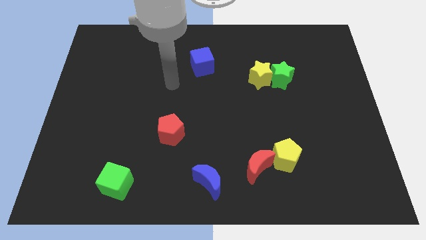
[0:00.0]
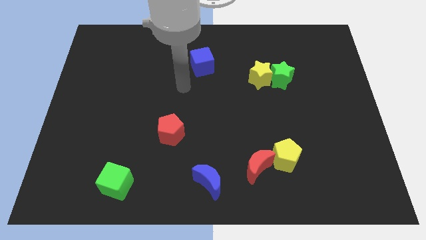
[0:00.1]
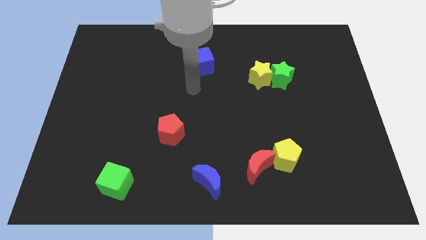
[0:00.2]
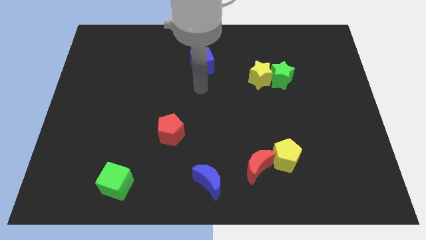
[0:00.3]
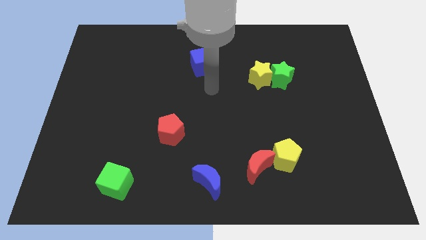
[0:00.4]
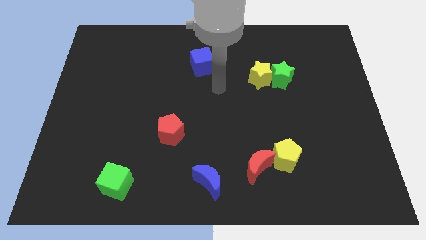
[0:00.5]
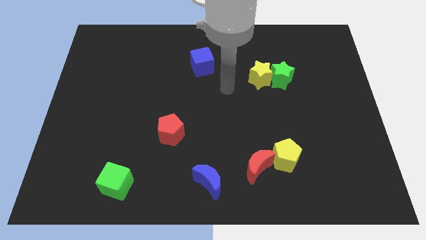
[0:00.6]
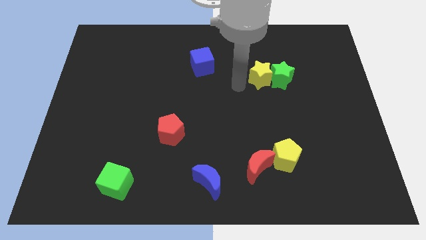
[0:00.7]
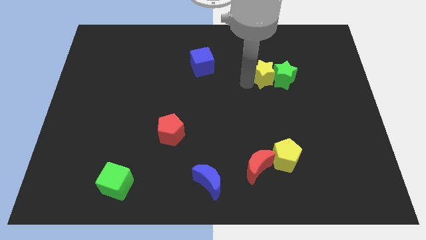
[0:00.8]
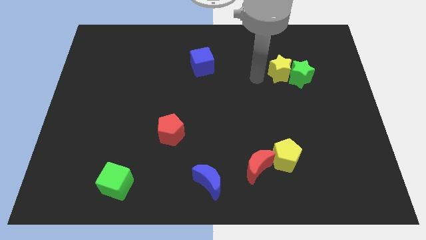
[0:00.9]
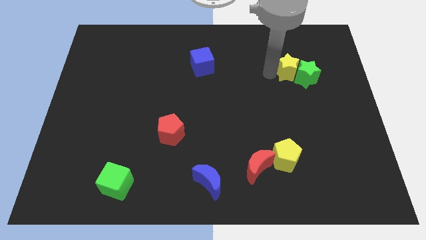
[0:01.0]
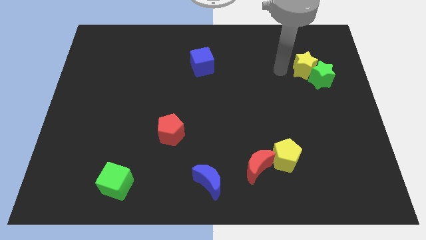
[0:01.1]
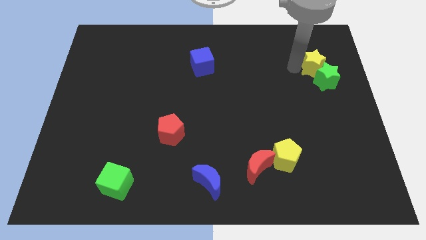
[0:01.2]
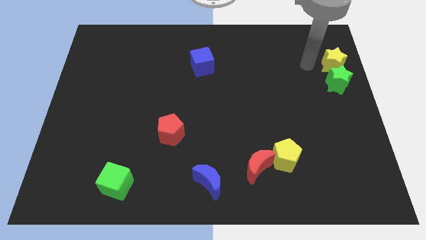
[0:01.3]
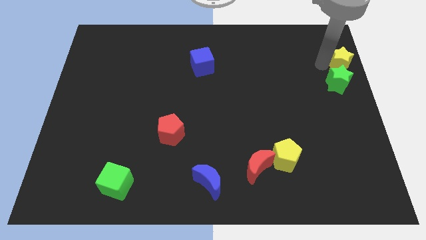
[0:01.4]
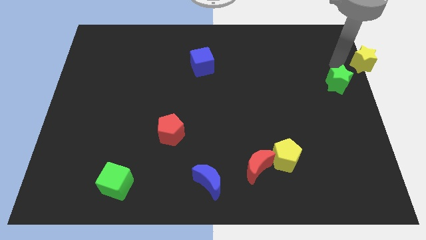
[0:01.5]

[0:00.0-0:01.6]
move the green star away from the yellow star

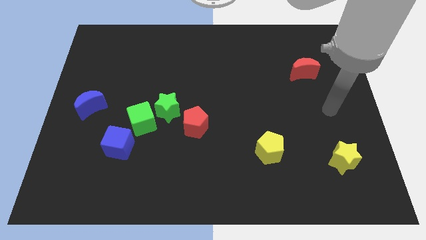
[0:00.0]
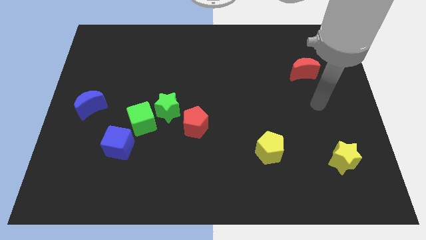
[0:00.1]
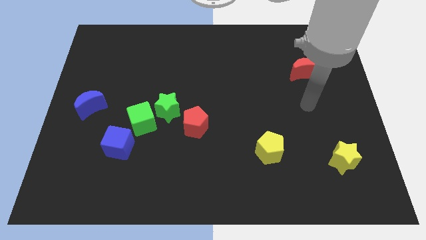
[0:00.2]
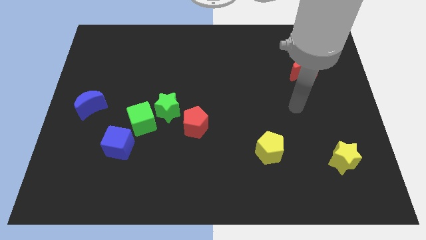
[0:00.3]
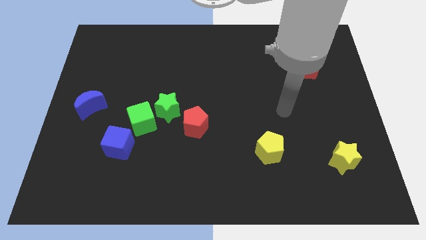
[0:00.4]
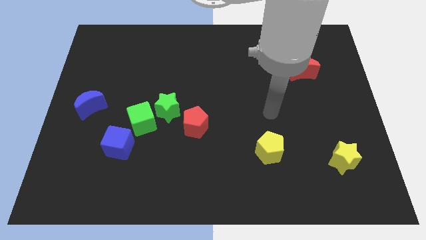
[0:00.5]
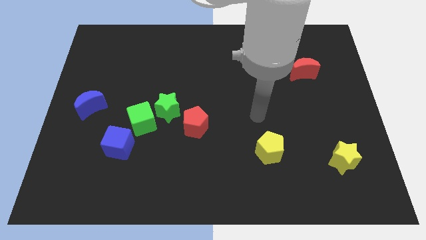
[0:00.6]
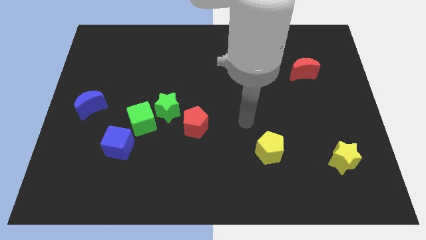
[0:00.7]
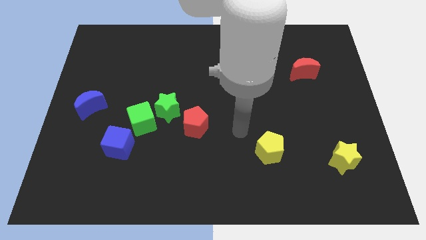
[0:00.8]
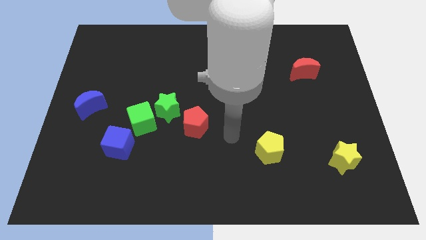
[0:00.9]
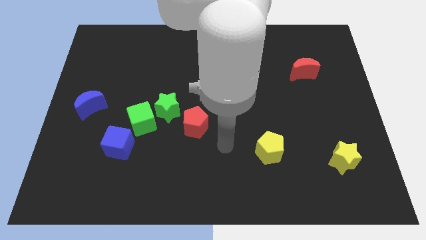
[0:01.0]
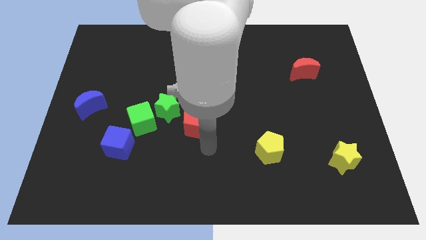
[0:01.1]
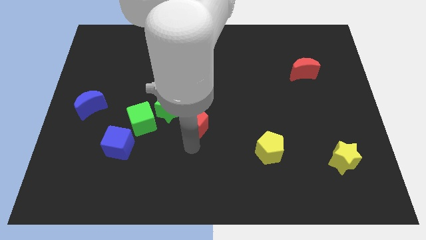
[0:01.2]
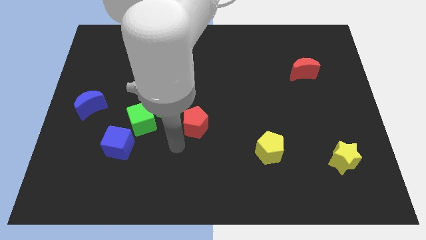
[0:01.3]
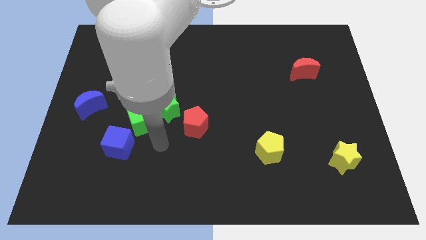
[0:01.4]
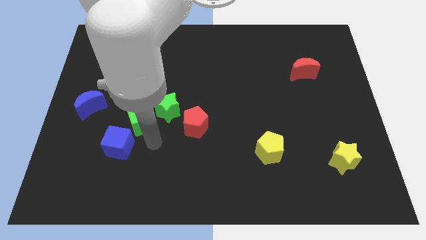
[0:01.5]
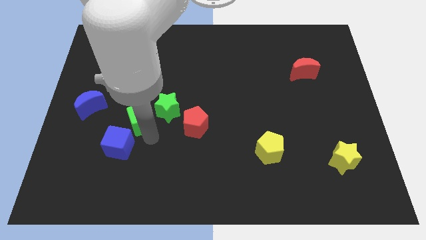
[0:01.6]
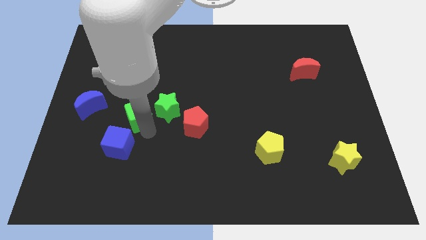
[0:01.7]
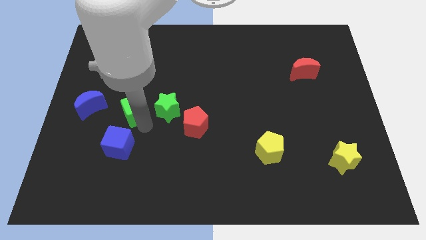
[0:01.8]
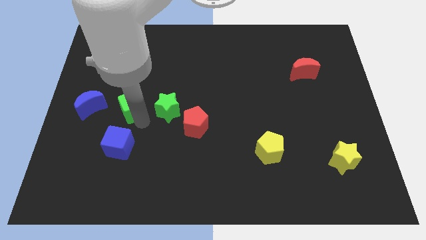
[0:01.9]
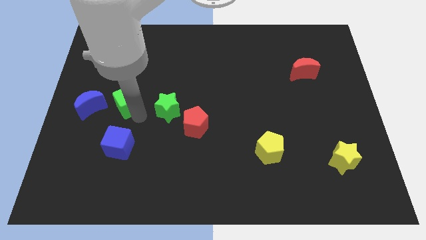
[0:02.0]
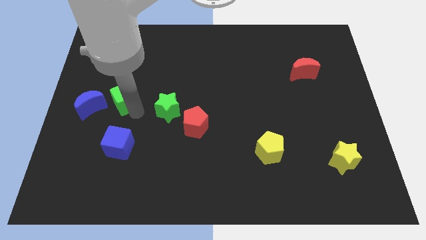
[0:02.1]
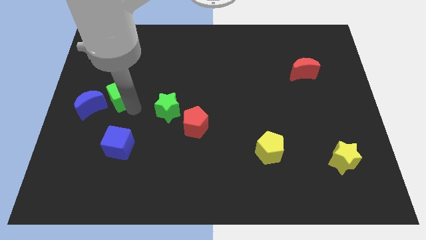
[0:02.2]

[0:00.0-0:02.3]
move the green cube away from the green star and blue cube

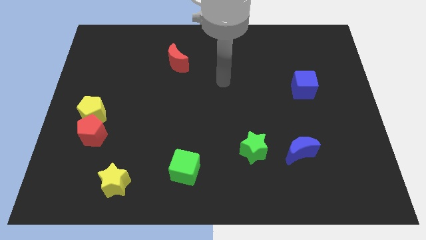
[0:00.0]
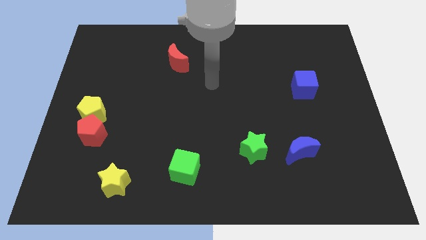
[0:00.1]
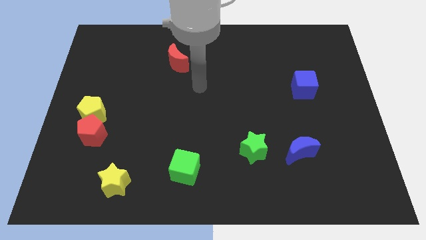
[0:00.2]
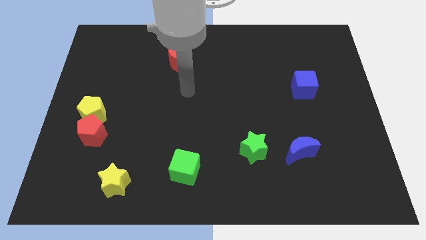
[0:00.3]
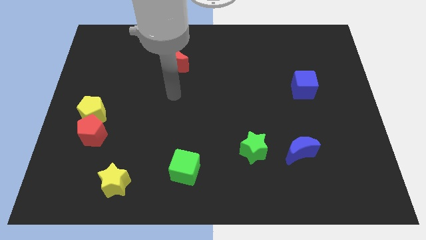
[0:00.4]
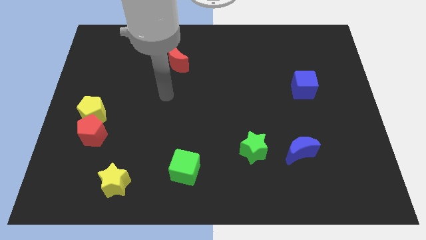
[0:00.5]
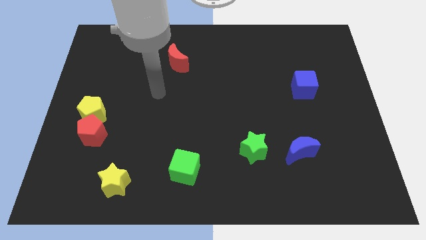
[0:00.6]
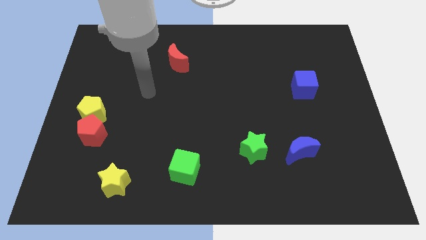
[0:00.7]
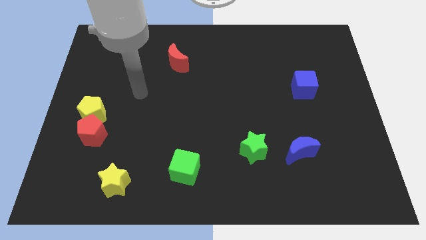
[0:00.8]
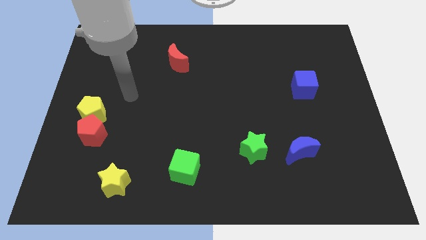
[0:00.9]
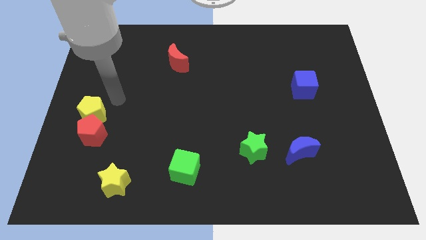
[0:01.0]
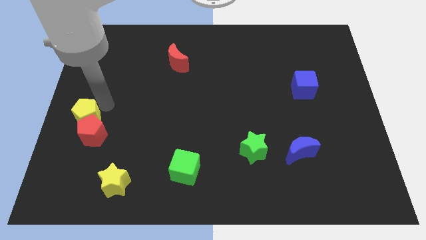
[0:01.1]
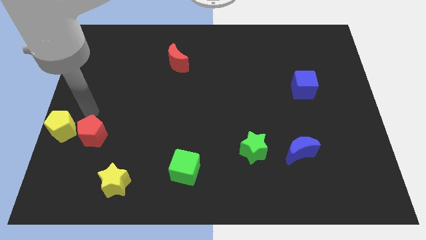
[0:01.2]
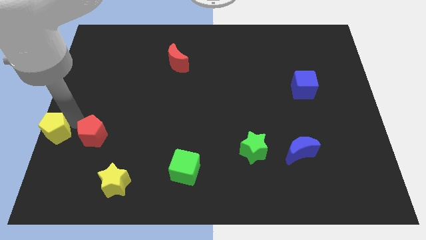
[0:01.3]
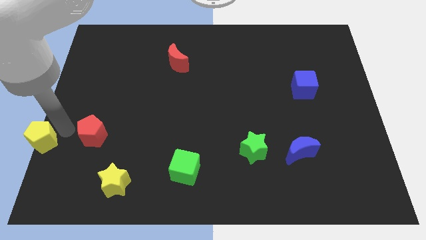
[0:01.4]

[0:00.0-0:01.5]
separate the red pentagon from the yellow pentagon

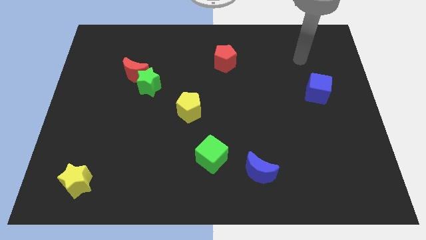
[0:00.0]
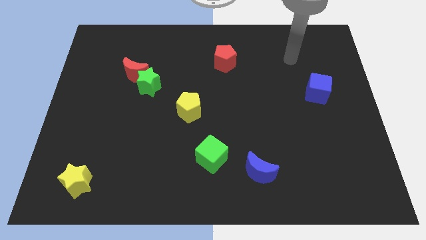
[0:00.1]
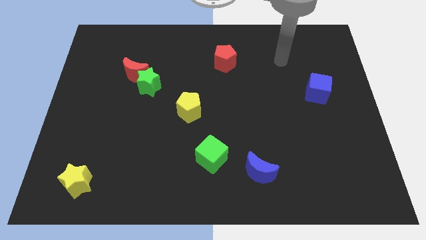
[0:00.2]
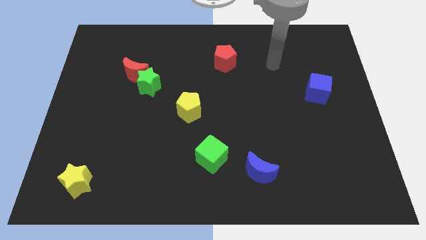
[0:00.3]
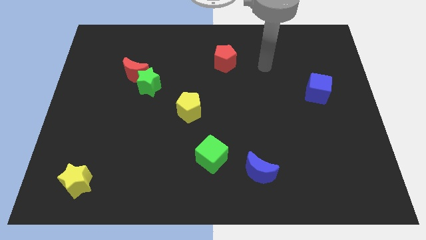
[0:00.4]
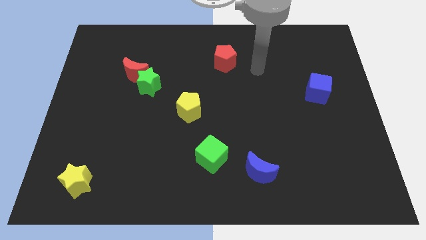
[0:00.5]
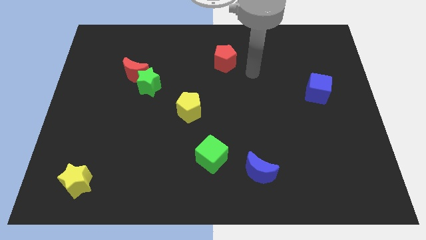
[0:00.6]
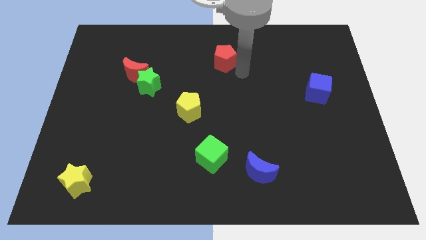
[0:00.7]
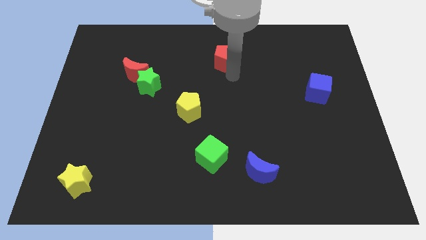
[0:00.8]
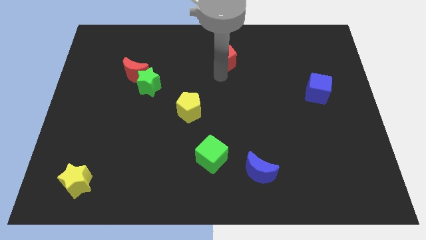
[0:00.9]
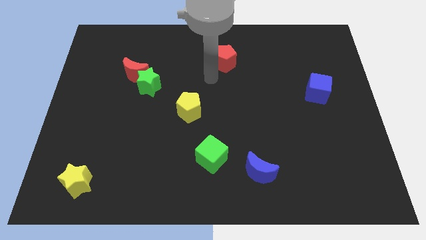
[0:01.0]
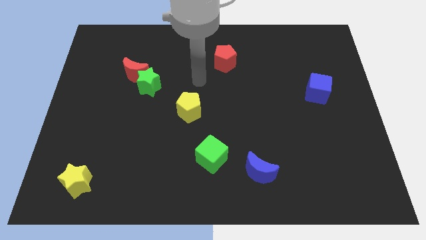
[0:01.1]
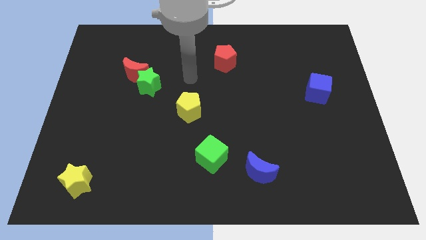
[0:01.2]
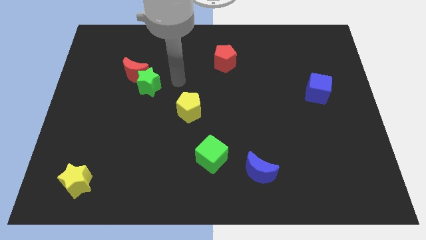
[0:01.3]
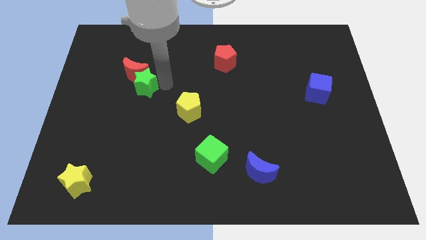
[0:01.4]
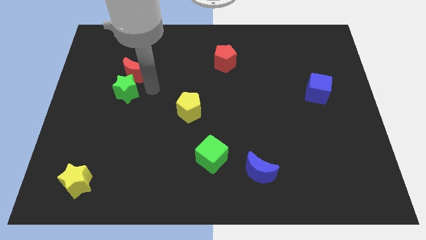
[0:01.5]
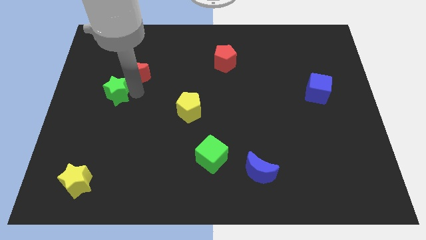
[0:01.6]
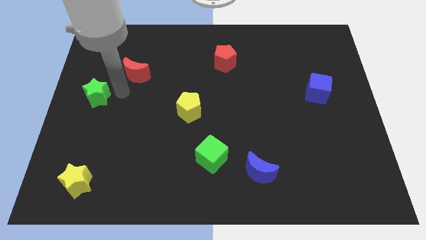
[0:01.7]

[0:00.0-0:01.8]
move the red moon away from the green star

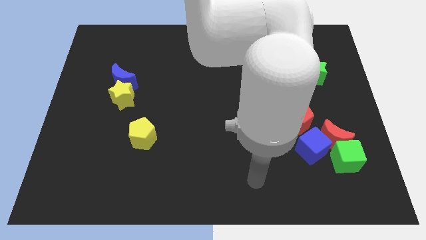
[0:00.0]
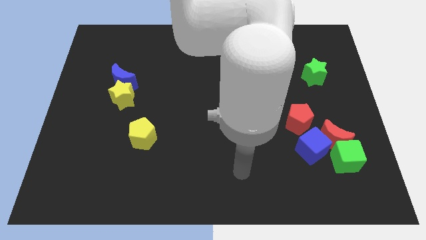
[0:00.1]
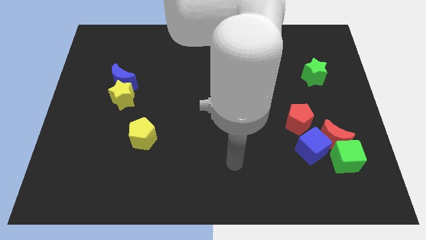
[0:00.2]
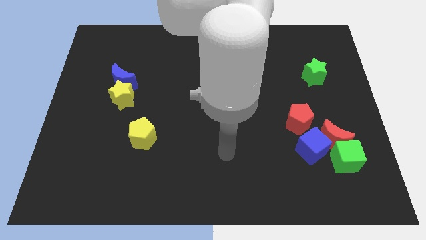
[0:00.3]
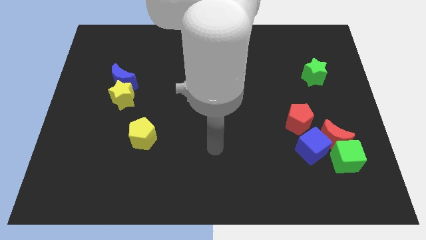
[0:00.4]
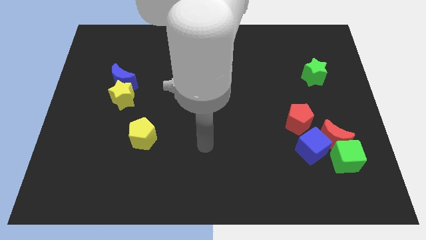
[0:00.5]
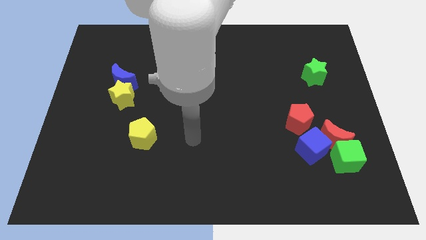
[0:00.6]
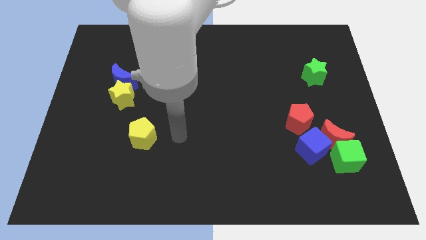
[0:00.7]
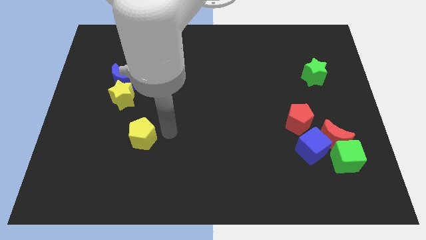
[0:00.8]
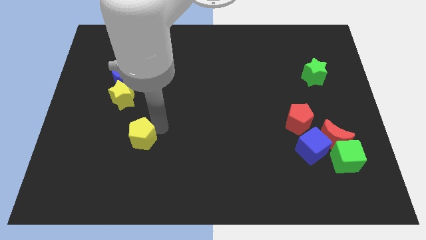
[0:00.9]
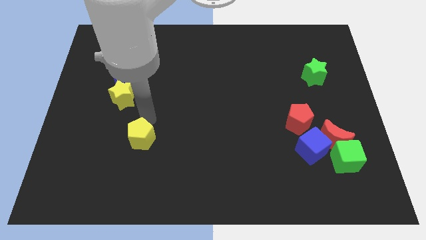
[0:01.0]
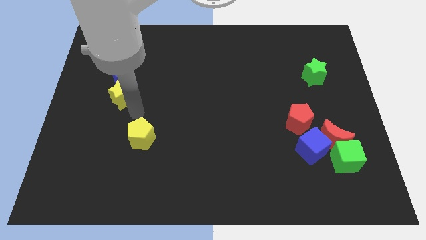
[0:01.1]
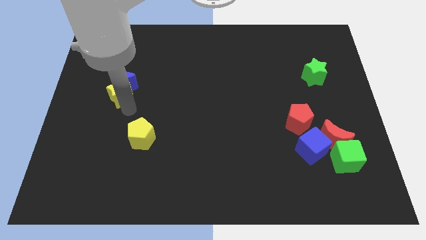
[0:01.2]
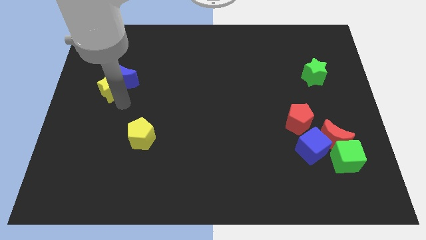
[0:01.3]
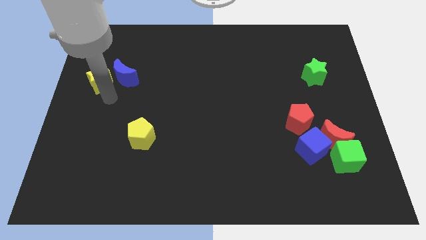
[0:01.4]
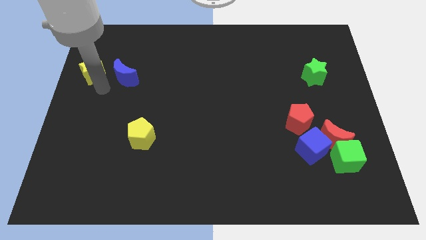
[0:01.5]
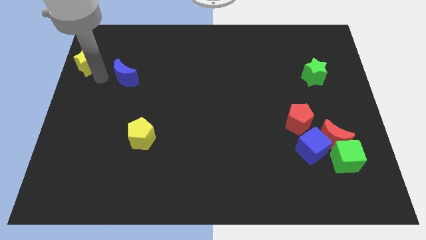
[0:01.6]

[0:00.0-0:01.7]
pull the blue moon apart from the yellow star

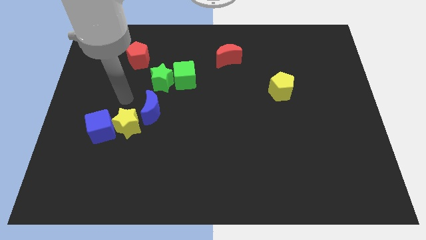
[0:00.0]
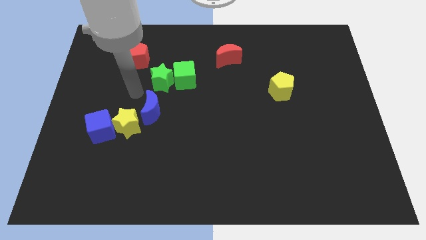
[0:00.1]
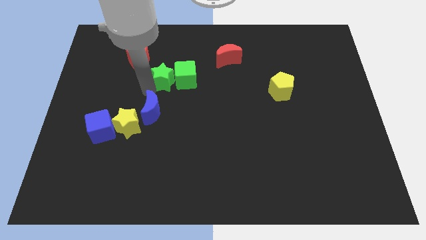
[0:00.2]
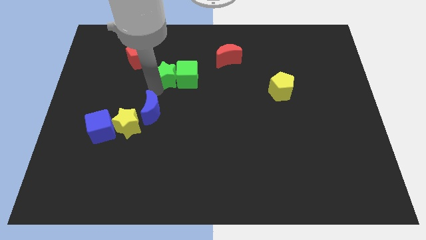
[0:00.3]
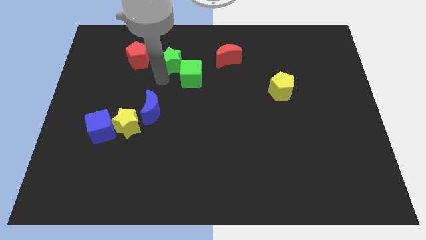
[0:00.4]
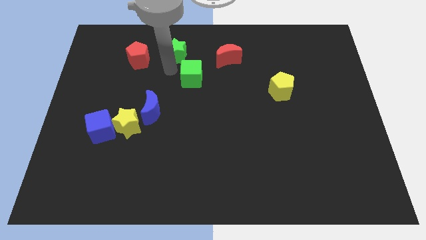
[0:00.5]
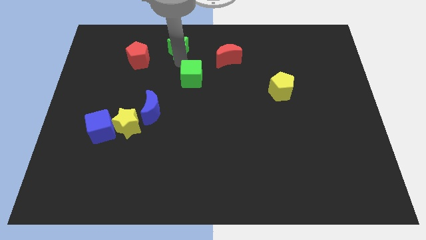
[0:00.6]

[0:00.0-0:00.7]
move the green cube away from the green star
